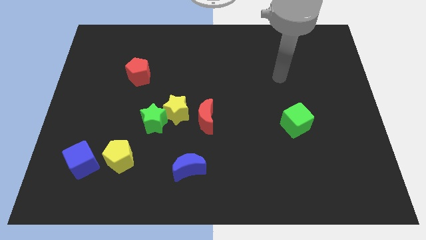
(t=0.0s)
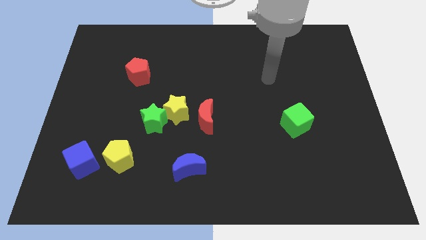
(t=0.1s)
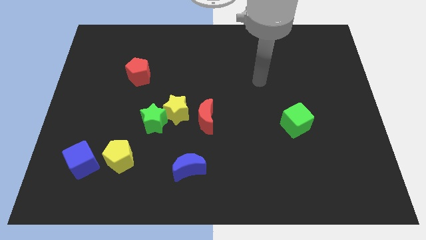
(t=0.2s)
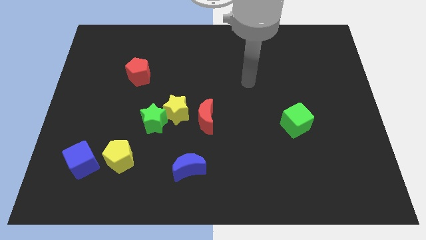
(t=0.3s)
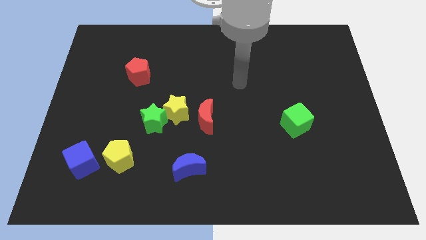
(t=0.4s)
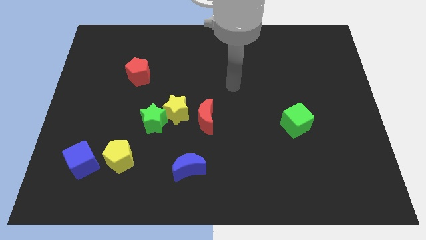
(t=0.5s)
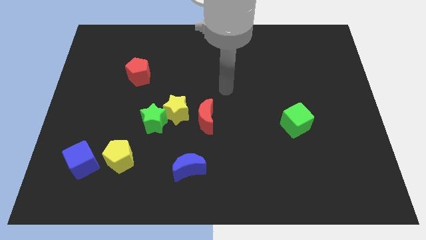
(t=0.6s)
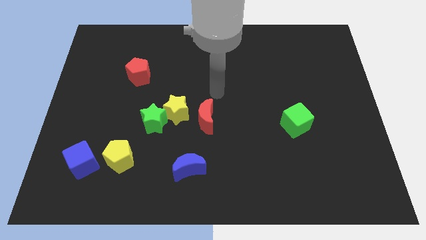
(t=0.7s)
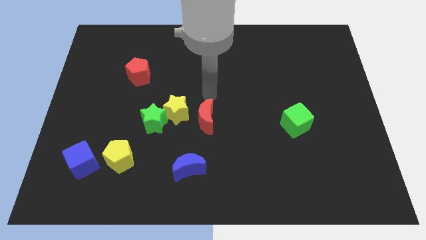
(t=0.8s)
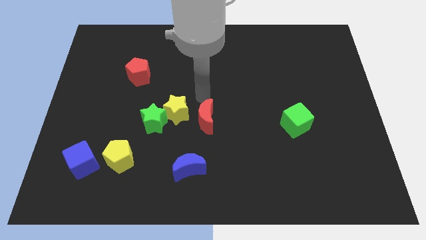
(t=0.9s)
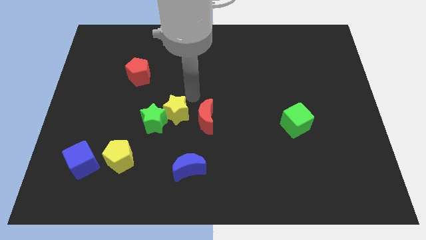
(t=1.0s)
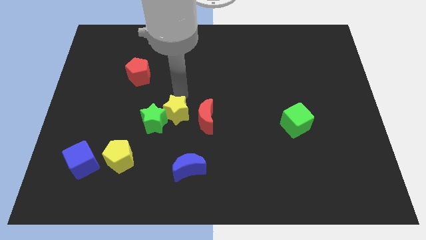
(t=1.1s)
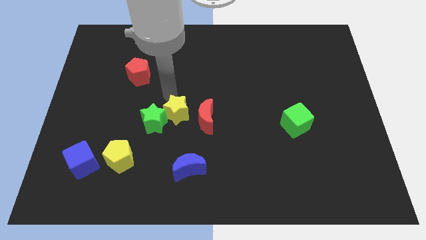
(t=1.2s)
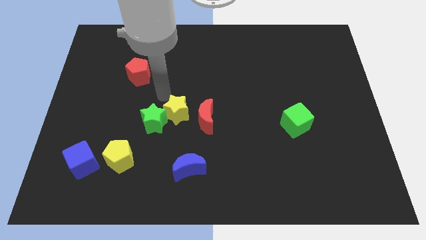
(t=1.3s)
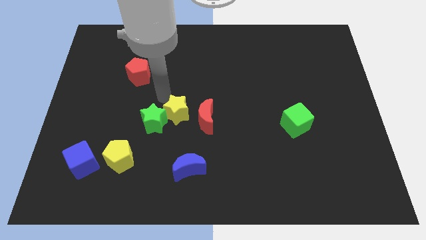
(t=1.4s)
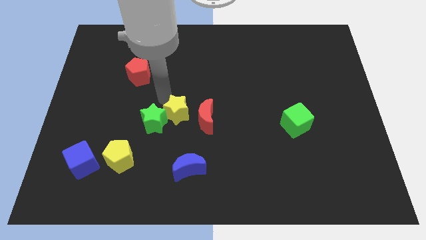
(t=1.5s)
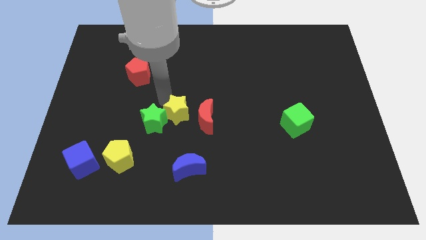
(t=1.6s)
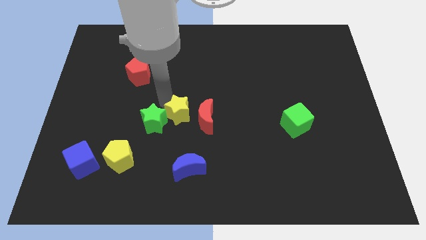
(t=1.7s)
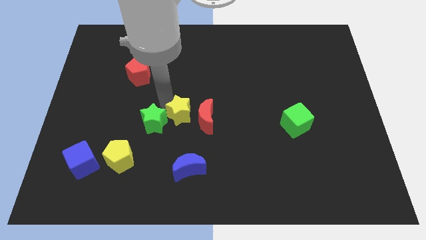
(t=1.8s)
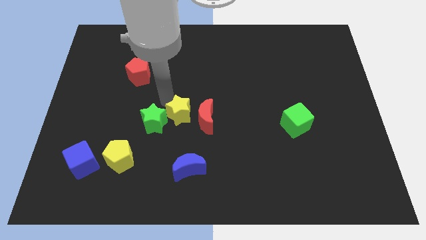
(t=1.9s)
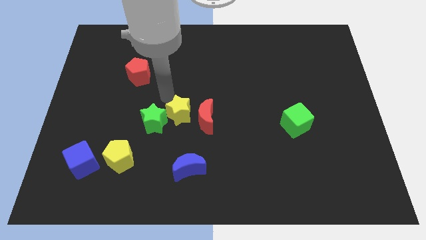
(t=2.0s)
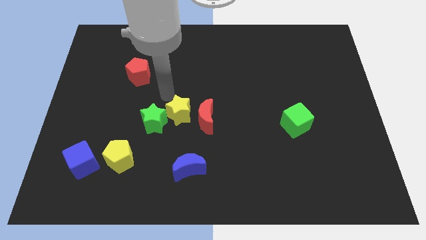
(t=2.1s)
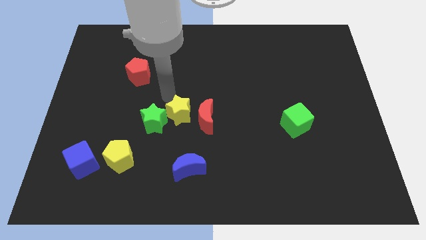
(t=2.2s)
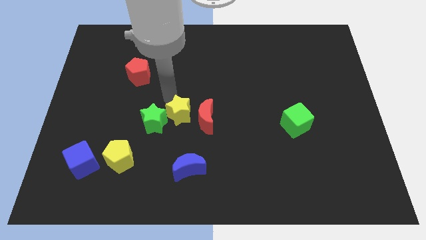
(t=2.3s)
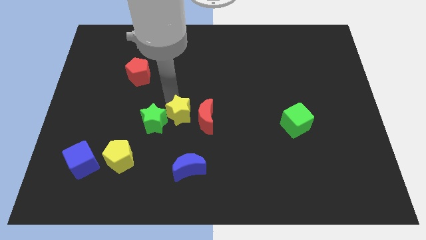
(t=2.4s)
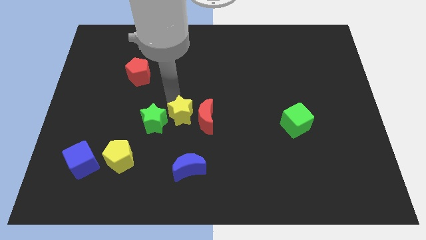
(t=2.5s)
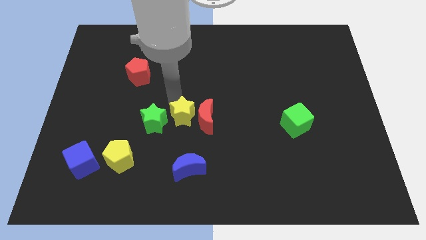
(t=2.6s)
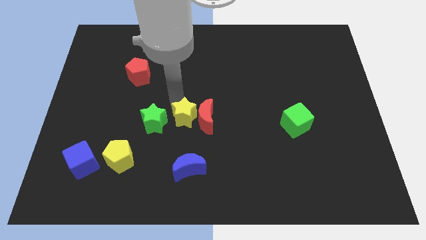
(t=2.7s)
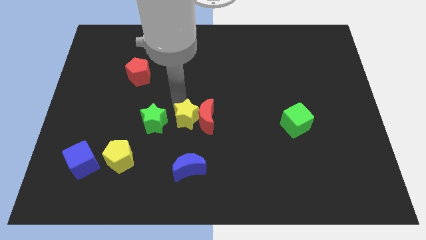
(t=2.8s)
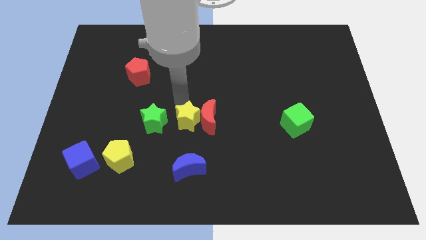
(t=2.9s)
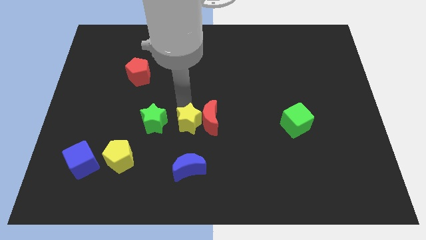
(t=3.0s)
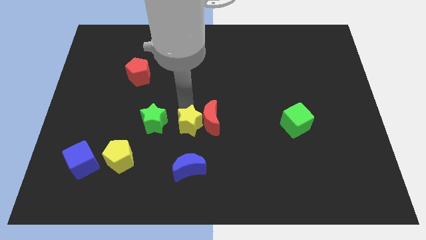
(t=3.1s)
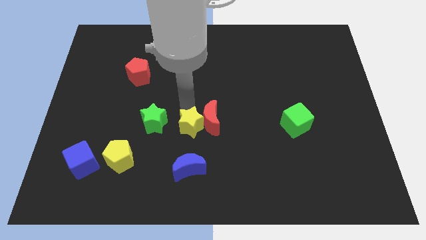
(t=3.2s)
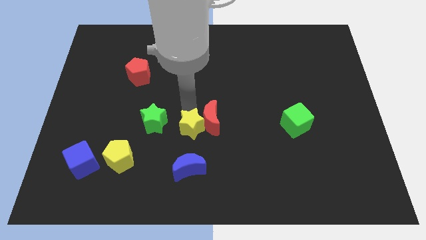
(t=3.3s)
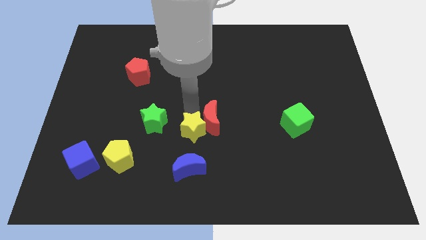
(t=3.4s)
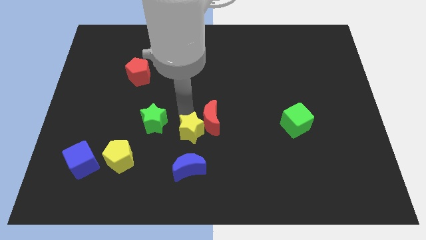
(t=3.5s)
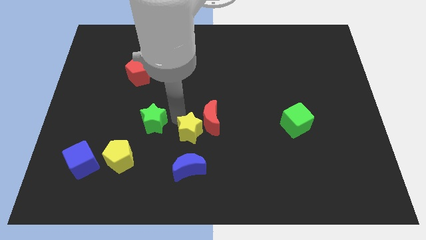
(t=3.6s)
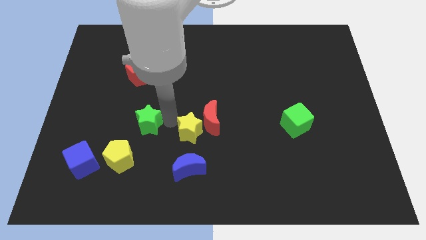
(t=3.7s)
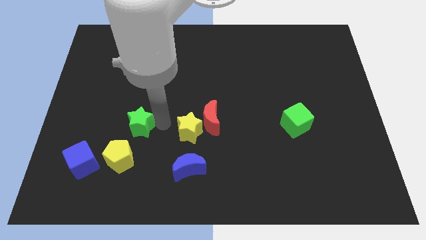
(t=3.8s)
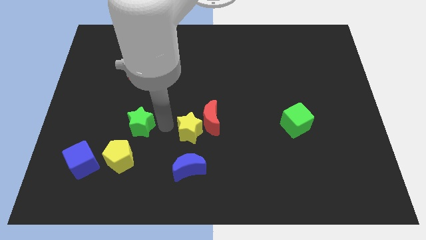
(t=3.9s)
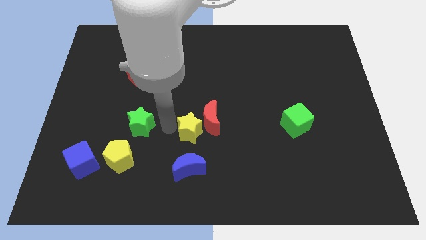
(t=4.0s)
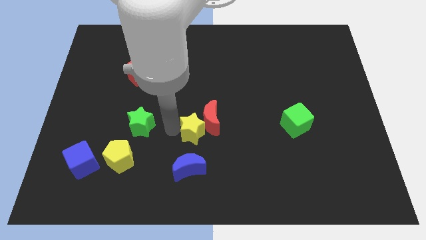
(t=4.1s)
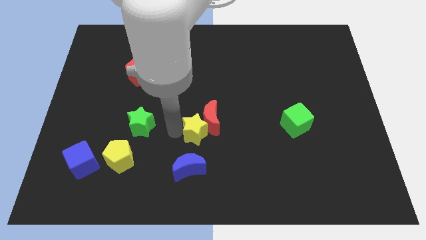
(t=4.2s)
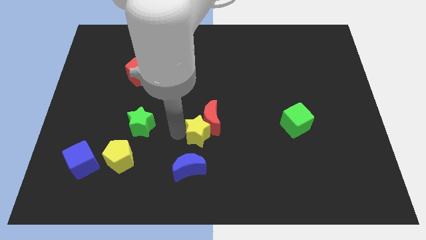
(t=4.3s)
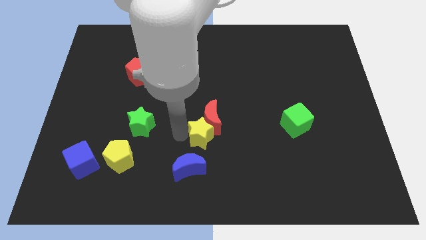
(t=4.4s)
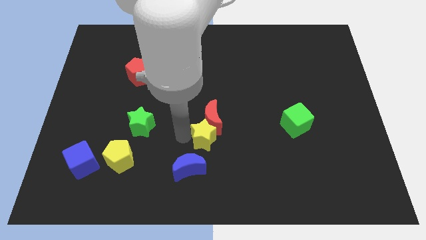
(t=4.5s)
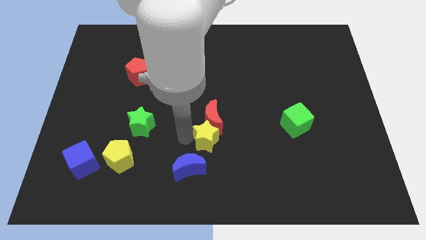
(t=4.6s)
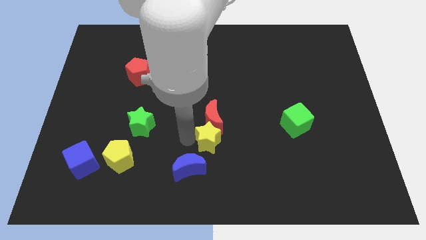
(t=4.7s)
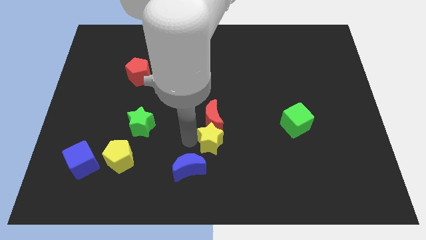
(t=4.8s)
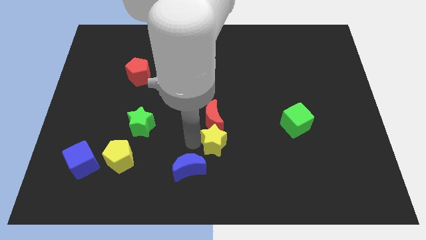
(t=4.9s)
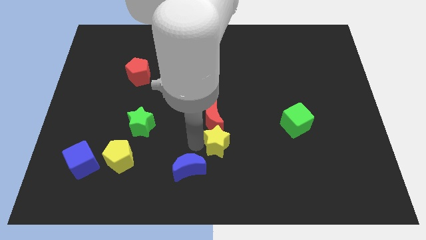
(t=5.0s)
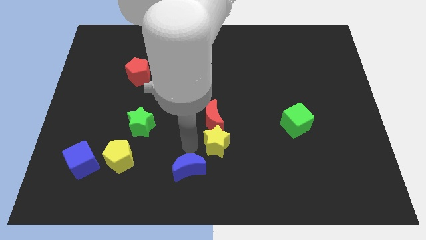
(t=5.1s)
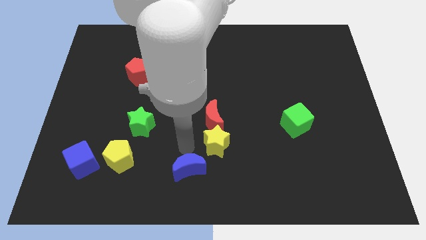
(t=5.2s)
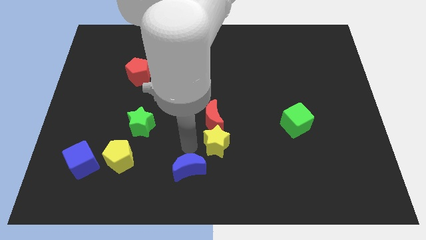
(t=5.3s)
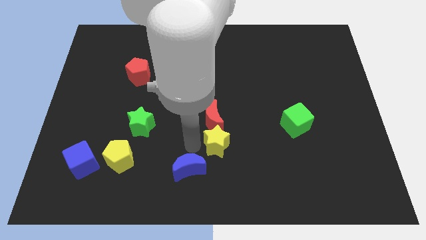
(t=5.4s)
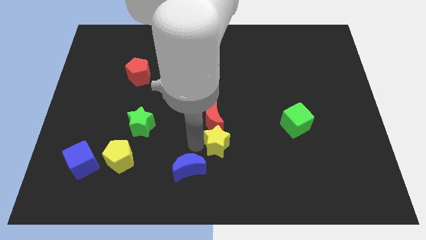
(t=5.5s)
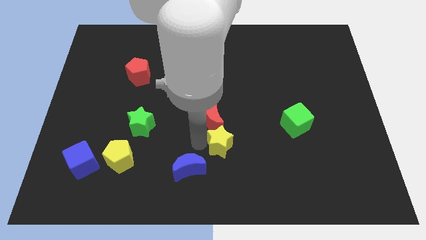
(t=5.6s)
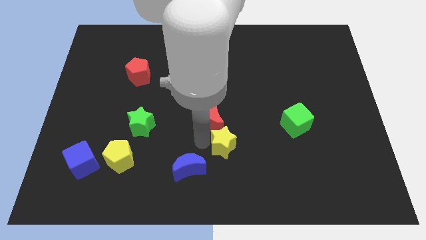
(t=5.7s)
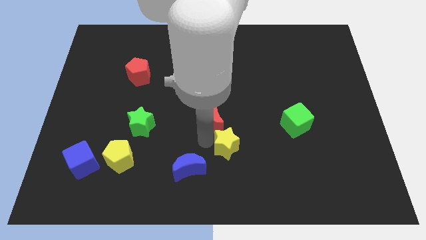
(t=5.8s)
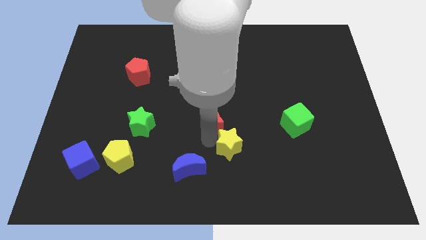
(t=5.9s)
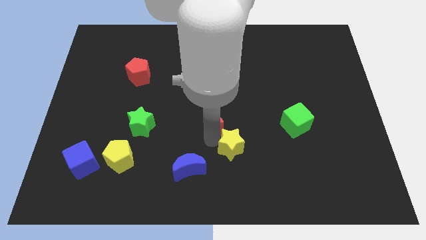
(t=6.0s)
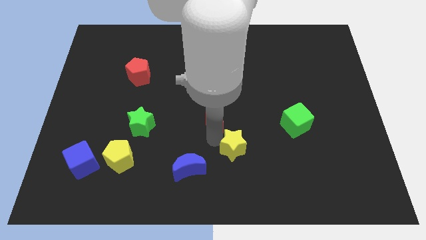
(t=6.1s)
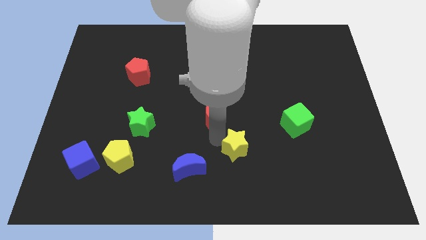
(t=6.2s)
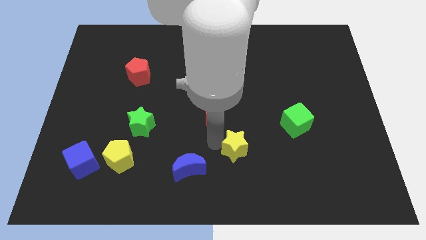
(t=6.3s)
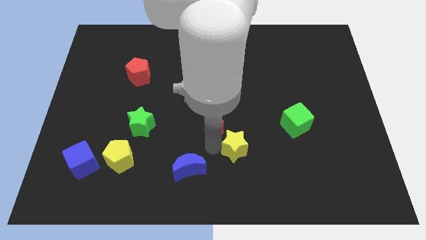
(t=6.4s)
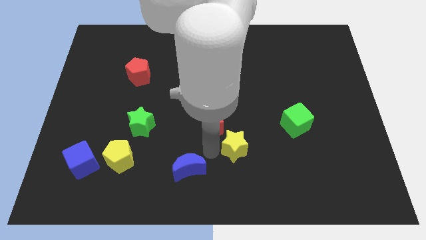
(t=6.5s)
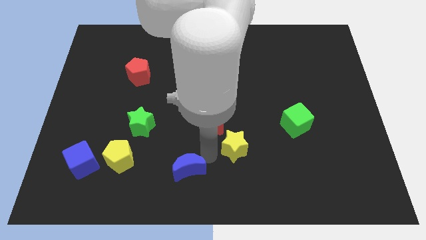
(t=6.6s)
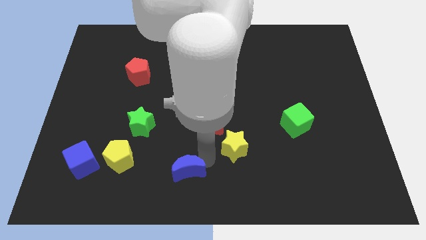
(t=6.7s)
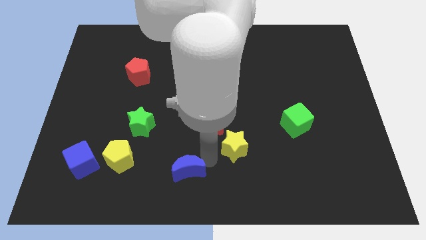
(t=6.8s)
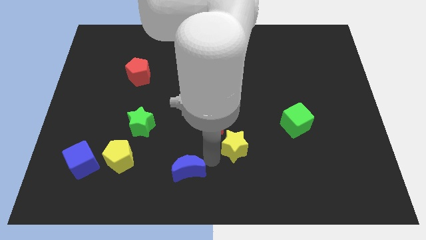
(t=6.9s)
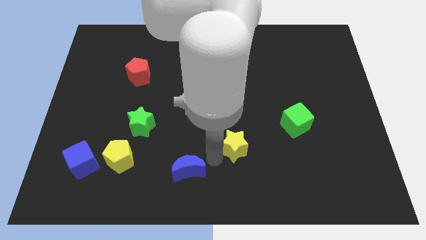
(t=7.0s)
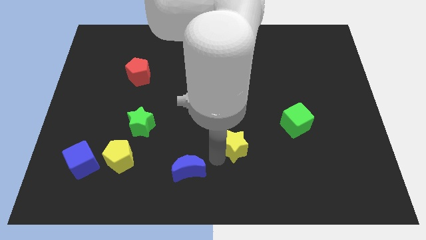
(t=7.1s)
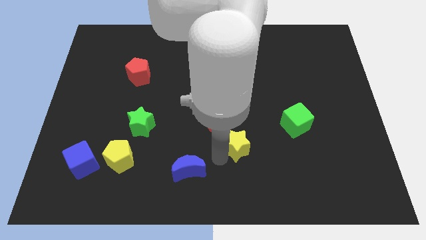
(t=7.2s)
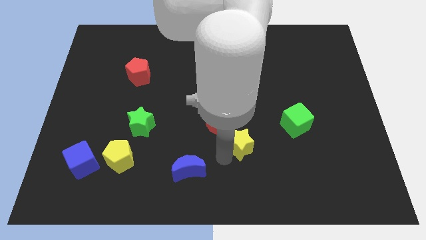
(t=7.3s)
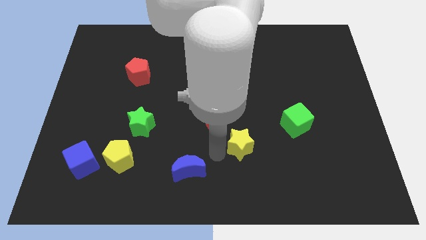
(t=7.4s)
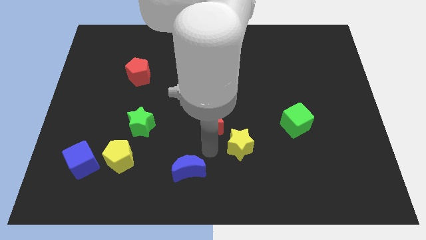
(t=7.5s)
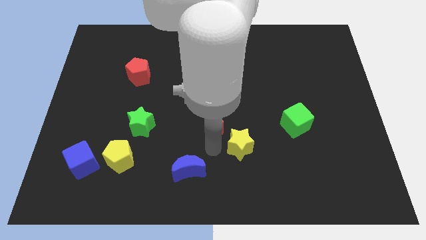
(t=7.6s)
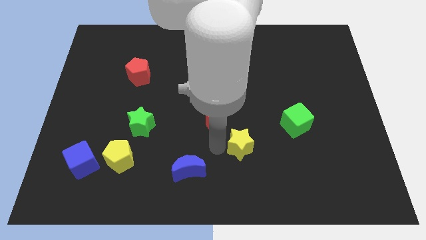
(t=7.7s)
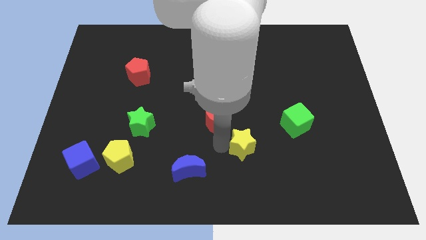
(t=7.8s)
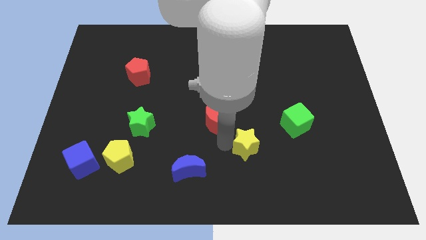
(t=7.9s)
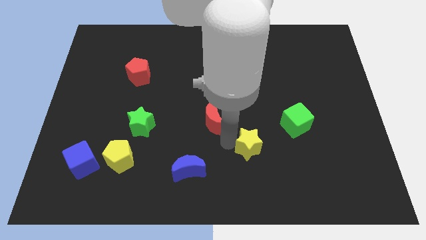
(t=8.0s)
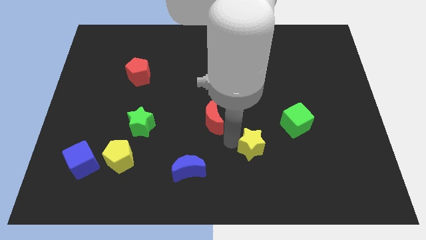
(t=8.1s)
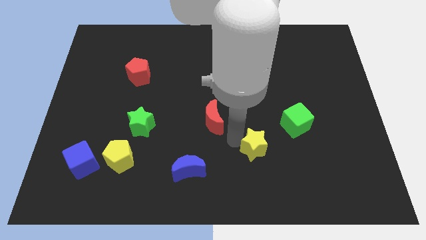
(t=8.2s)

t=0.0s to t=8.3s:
move the yellow star diagonally down and to the left of the green cube
